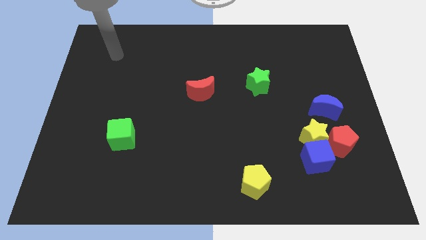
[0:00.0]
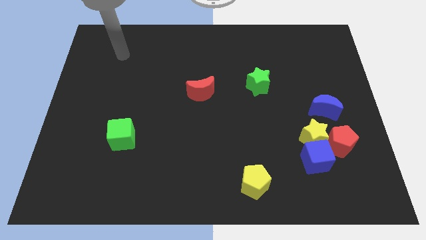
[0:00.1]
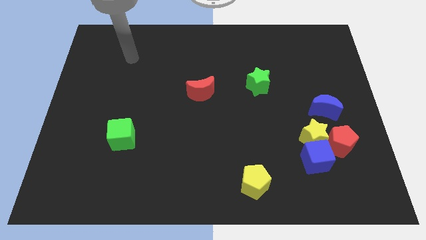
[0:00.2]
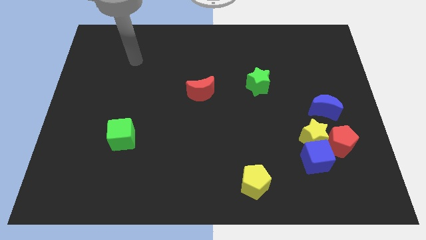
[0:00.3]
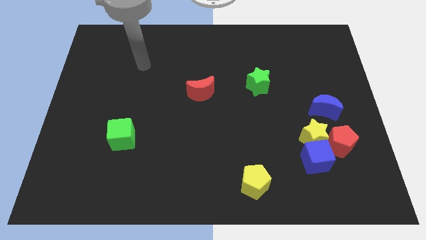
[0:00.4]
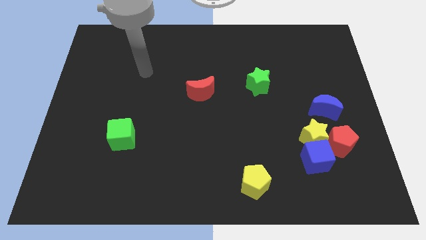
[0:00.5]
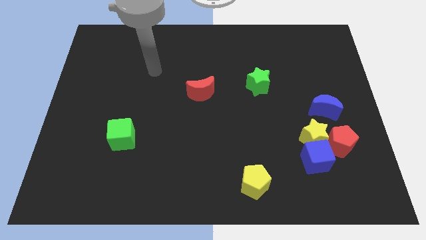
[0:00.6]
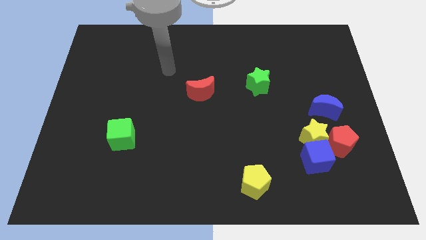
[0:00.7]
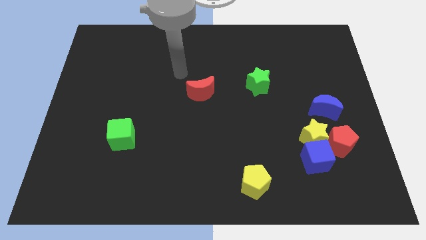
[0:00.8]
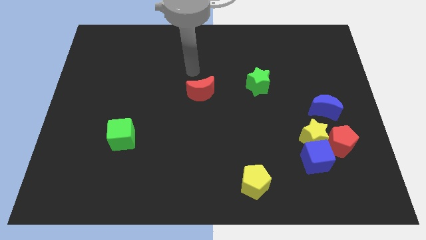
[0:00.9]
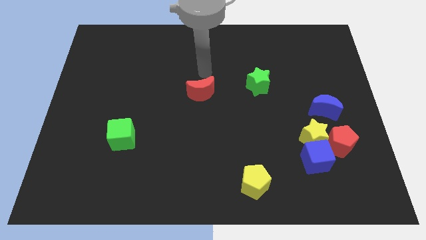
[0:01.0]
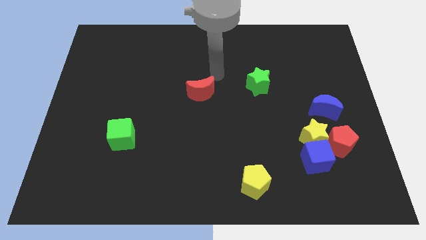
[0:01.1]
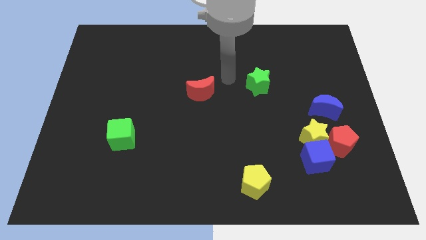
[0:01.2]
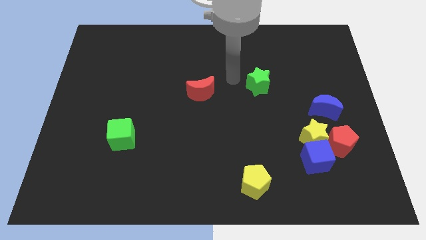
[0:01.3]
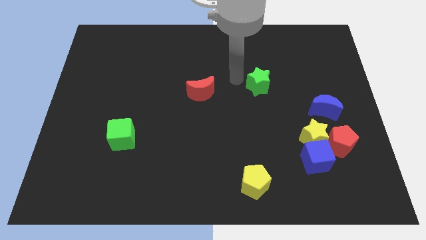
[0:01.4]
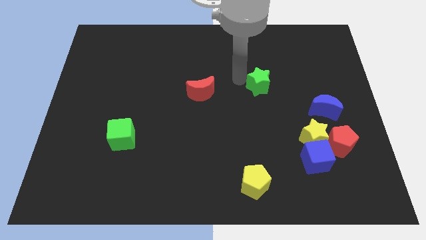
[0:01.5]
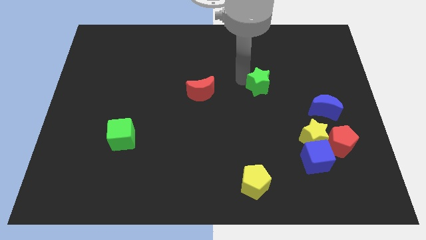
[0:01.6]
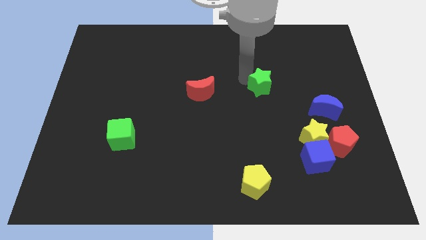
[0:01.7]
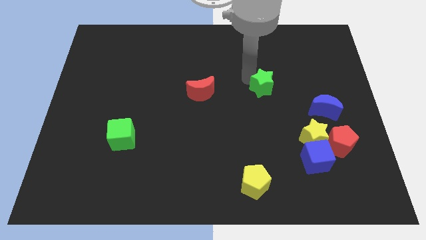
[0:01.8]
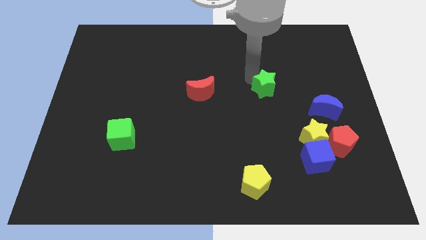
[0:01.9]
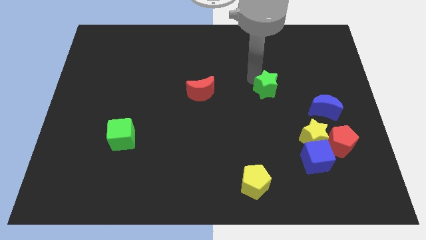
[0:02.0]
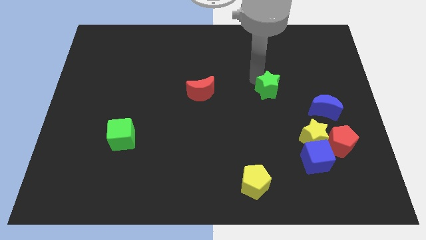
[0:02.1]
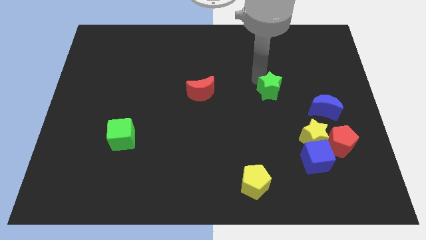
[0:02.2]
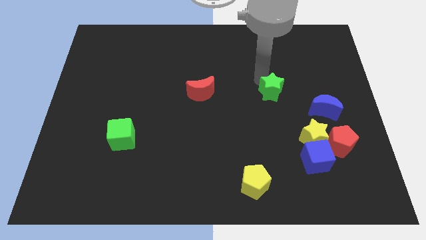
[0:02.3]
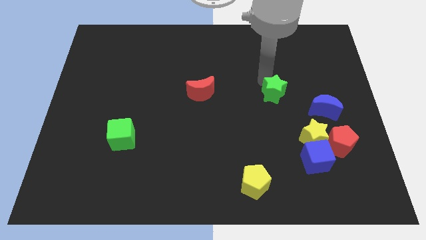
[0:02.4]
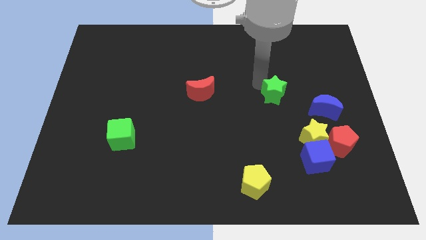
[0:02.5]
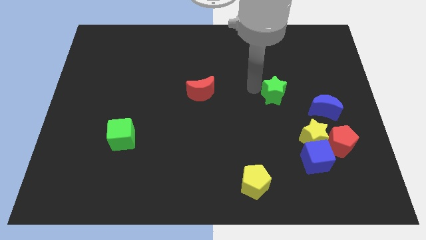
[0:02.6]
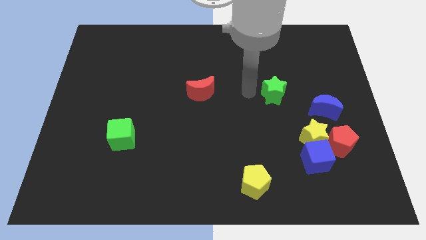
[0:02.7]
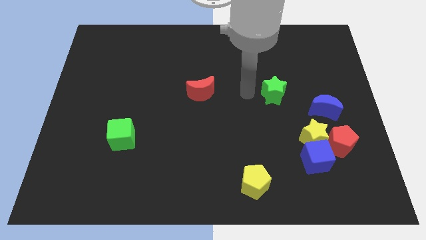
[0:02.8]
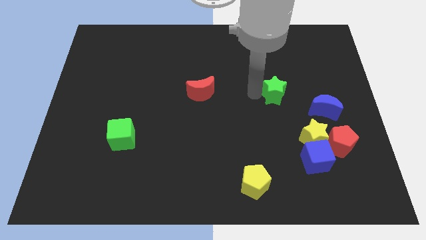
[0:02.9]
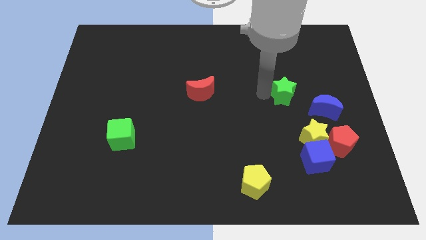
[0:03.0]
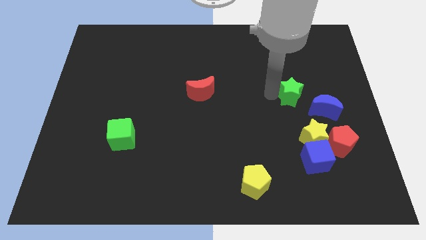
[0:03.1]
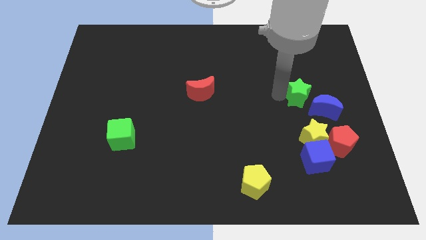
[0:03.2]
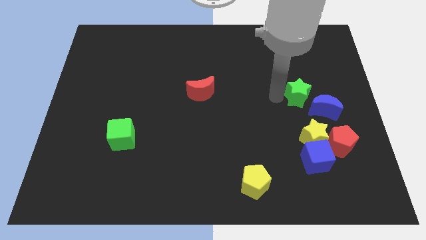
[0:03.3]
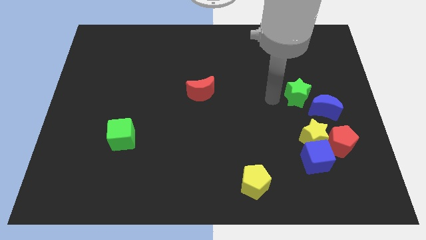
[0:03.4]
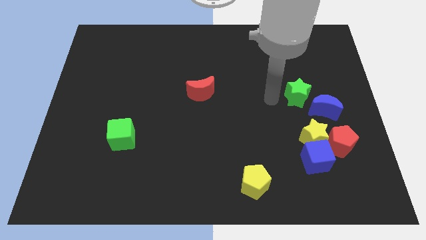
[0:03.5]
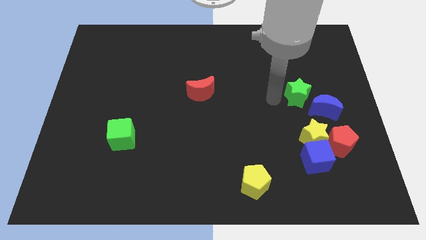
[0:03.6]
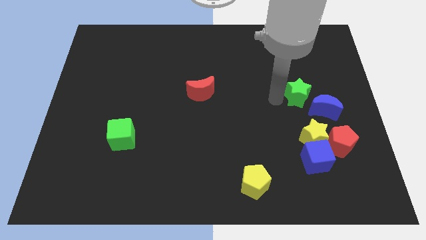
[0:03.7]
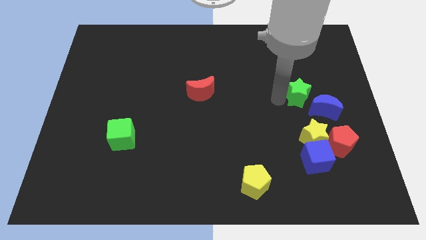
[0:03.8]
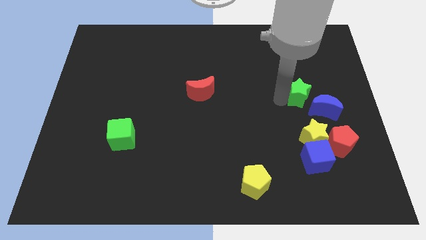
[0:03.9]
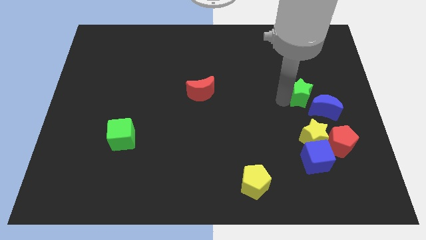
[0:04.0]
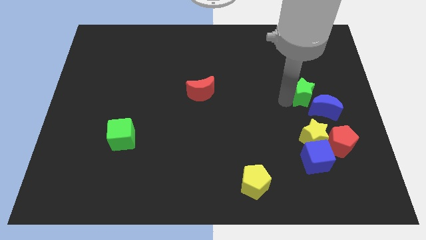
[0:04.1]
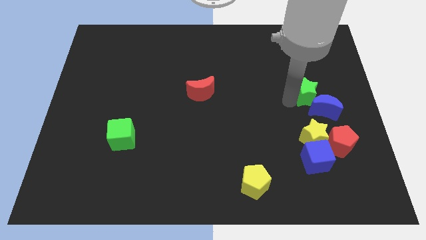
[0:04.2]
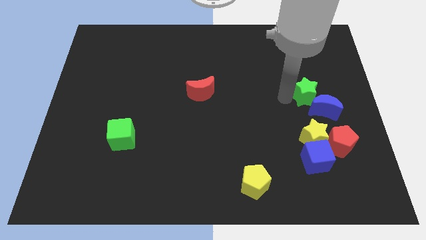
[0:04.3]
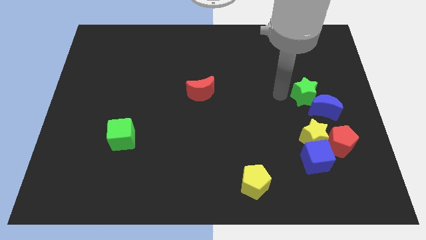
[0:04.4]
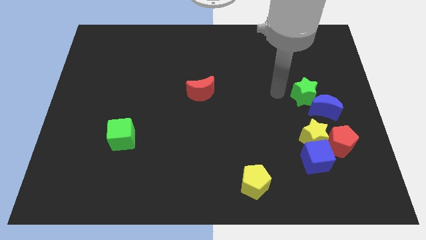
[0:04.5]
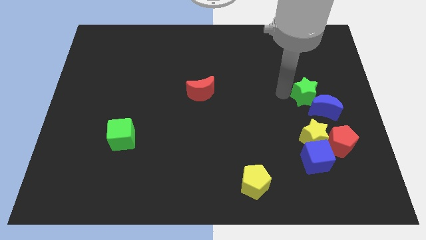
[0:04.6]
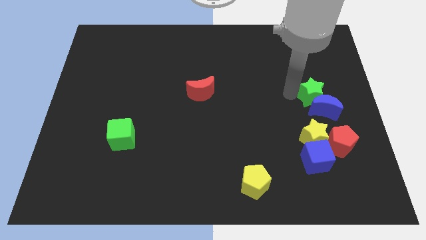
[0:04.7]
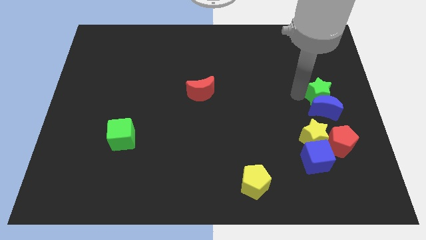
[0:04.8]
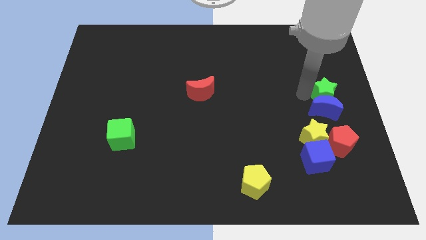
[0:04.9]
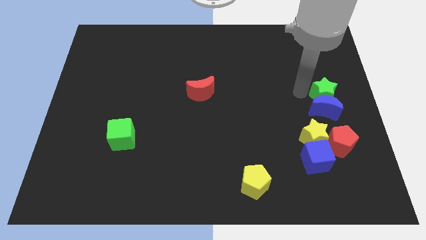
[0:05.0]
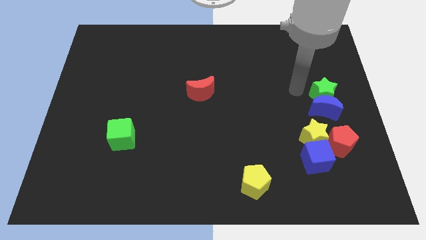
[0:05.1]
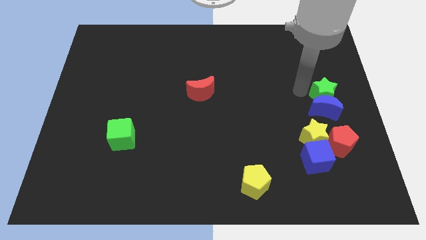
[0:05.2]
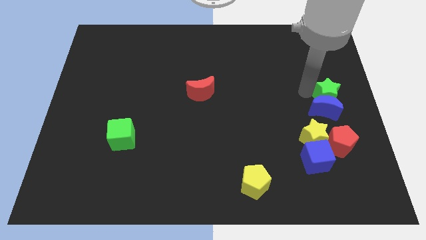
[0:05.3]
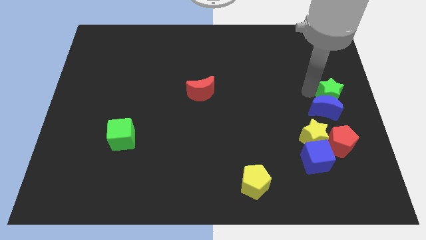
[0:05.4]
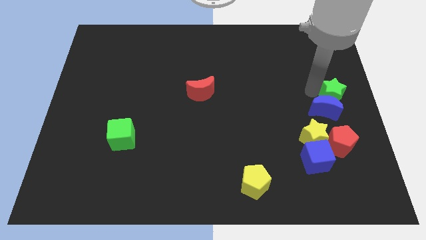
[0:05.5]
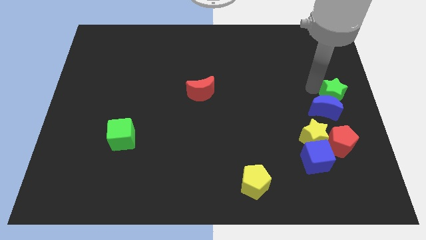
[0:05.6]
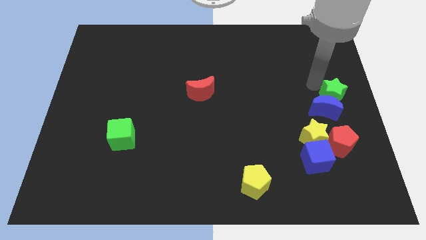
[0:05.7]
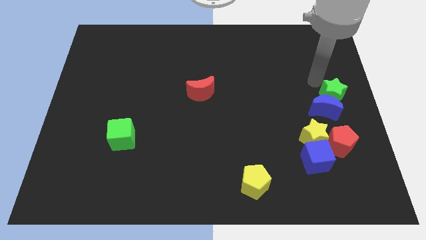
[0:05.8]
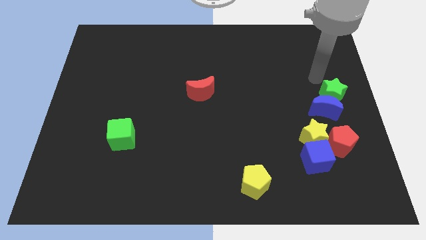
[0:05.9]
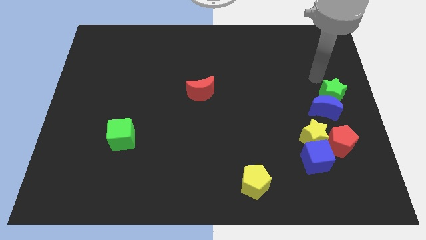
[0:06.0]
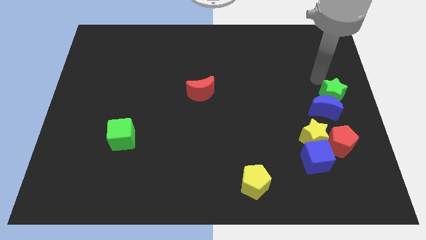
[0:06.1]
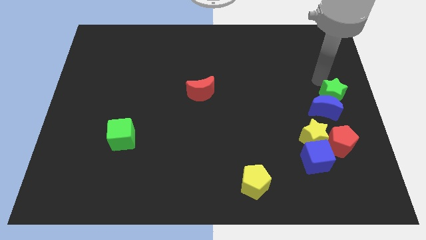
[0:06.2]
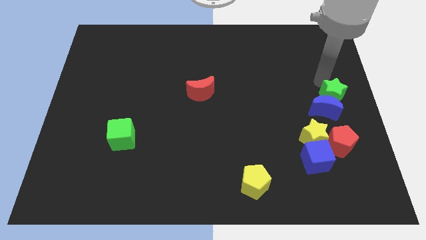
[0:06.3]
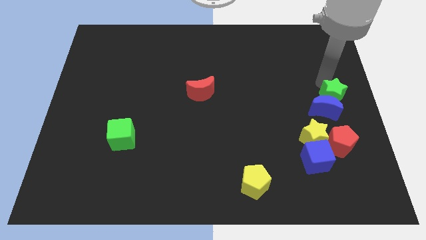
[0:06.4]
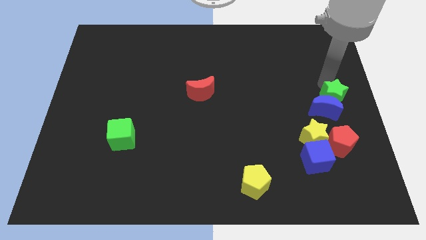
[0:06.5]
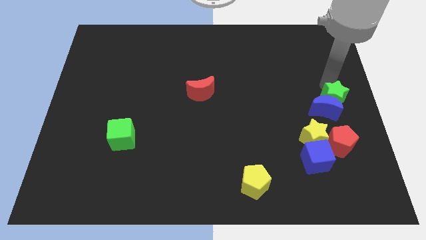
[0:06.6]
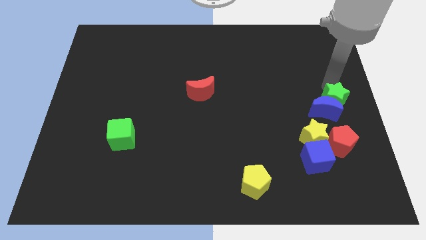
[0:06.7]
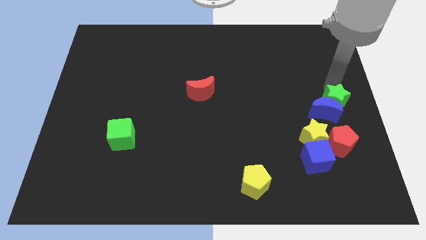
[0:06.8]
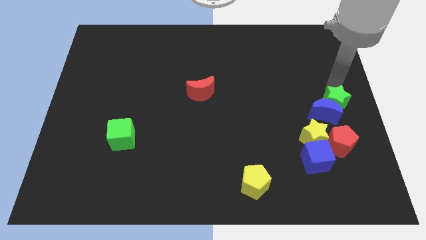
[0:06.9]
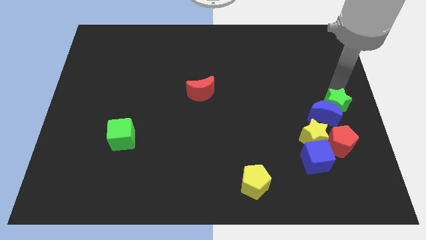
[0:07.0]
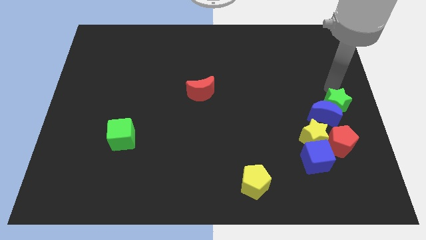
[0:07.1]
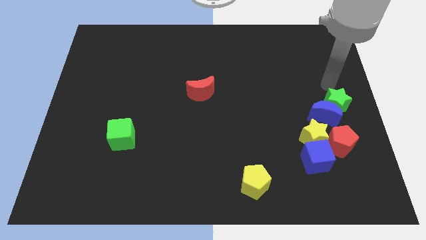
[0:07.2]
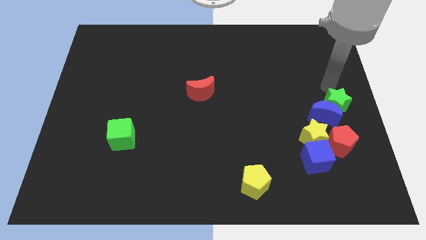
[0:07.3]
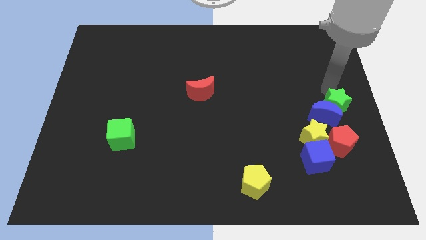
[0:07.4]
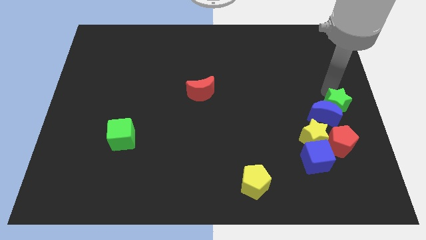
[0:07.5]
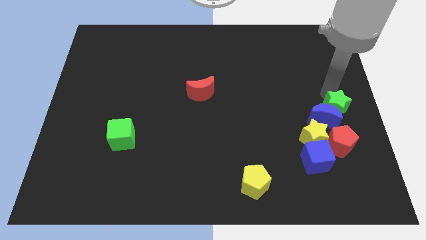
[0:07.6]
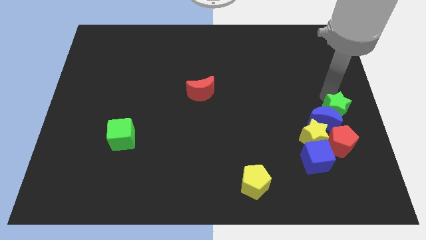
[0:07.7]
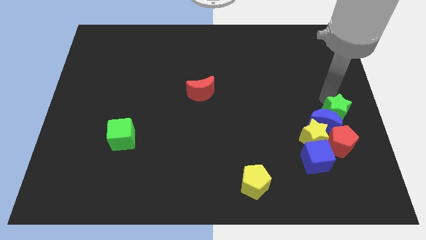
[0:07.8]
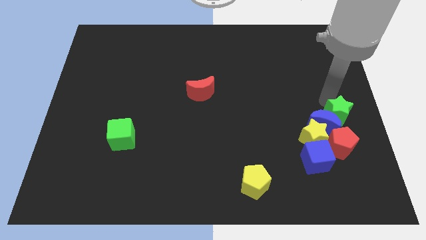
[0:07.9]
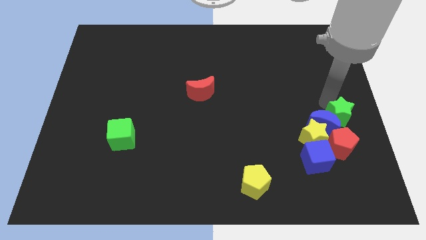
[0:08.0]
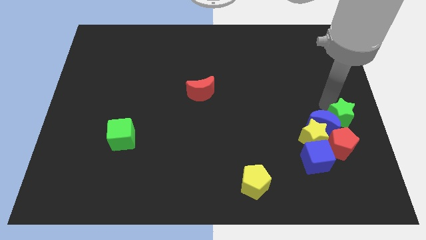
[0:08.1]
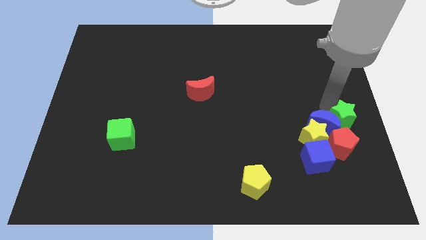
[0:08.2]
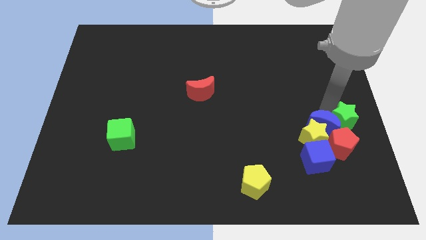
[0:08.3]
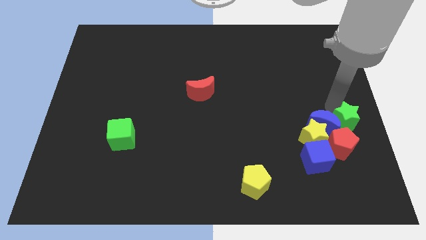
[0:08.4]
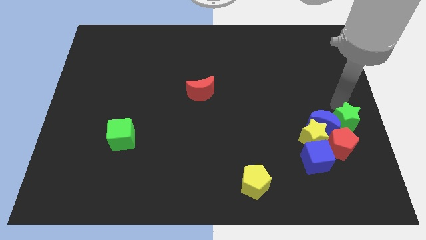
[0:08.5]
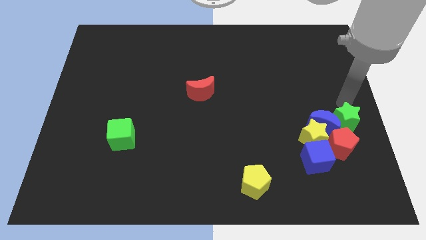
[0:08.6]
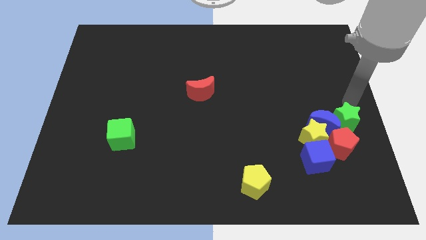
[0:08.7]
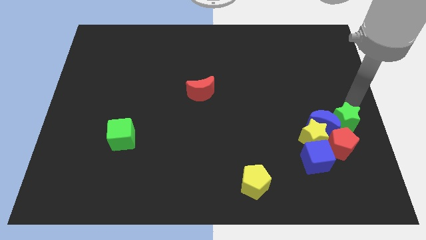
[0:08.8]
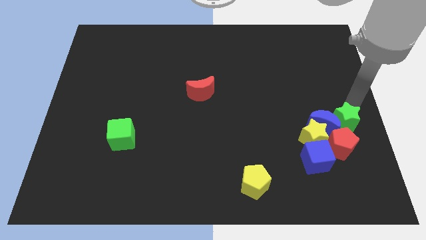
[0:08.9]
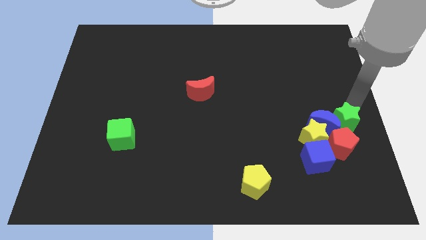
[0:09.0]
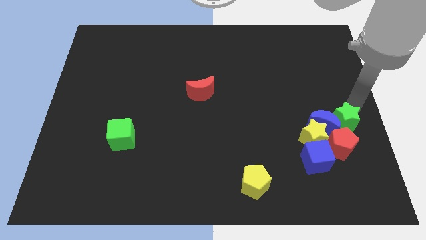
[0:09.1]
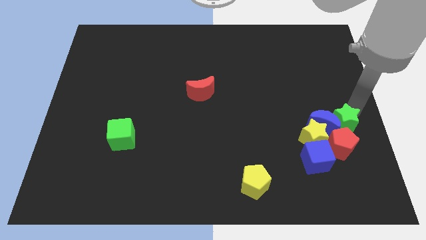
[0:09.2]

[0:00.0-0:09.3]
put the green star to the top right of the blue cube
